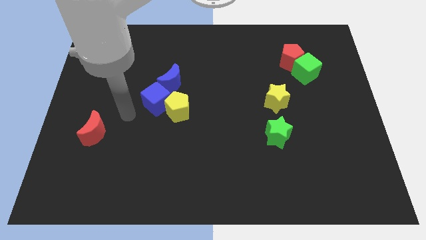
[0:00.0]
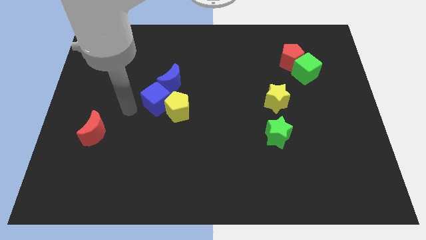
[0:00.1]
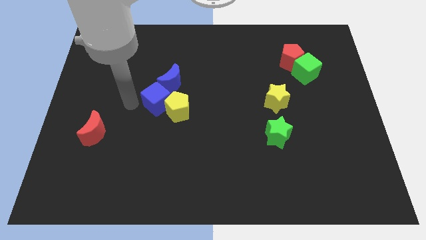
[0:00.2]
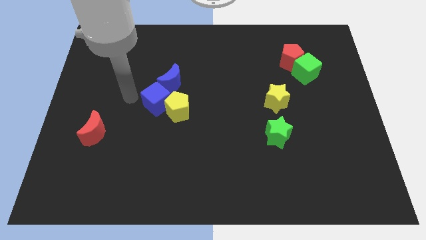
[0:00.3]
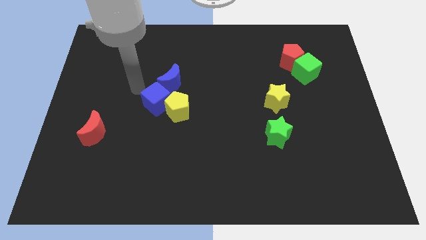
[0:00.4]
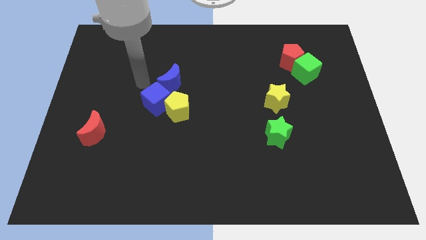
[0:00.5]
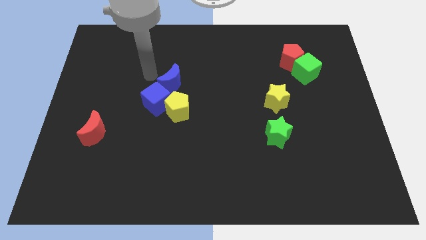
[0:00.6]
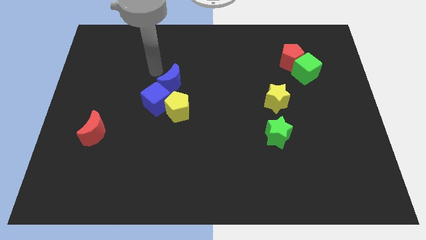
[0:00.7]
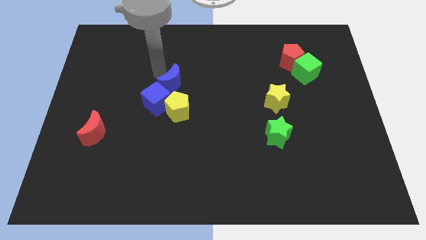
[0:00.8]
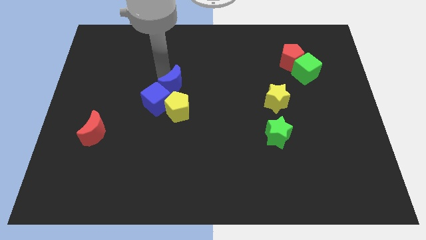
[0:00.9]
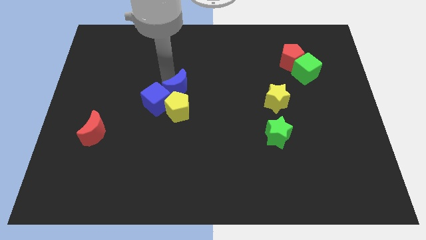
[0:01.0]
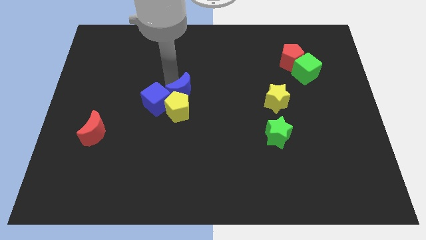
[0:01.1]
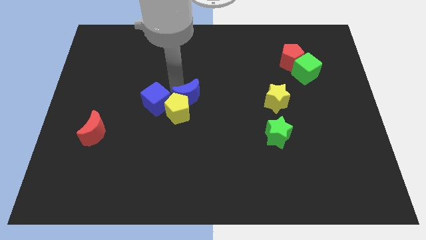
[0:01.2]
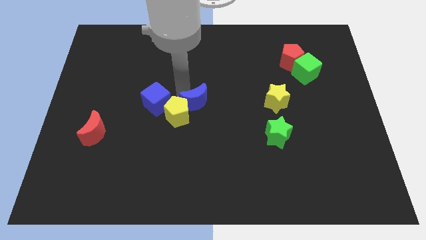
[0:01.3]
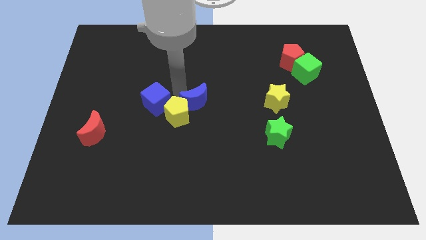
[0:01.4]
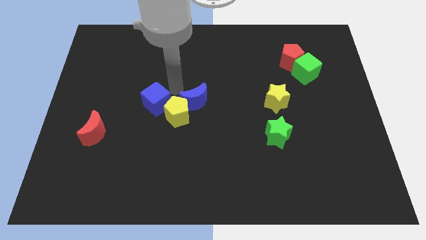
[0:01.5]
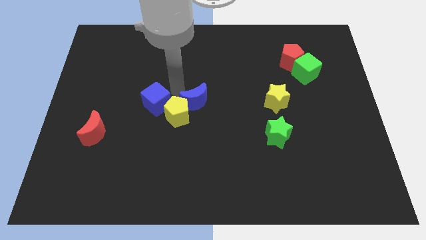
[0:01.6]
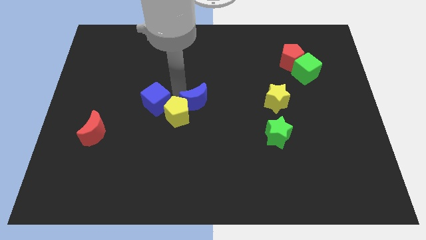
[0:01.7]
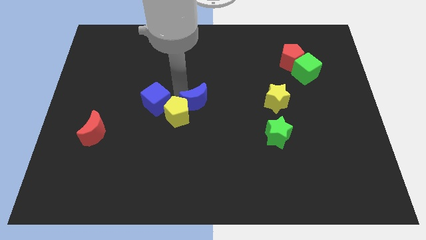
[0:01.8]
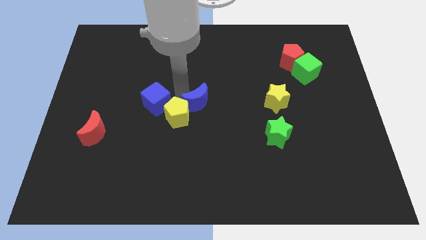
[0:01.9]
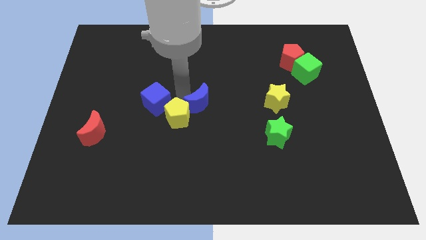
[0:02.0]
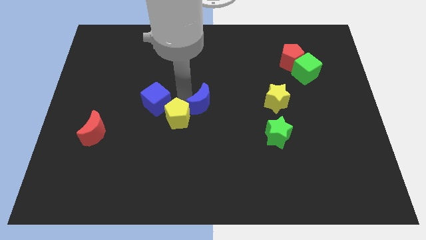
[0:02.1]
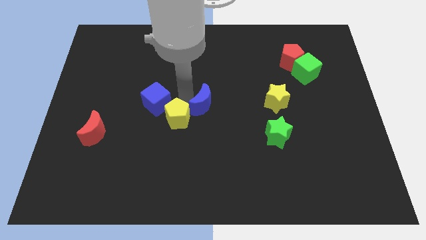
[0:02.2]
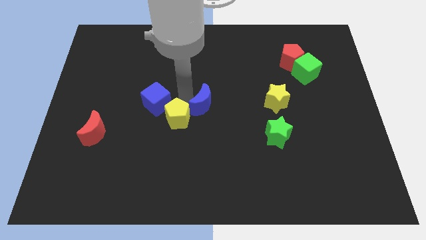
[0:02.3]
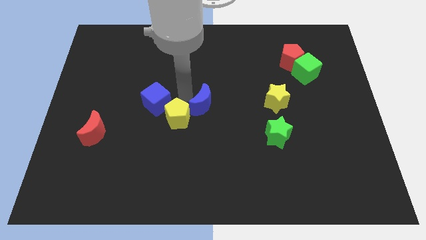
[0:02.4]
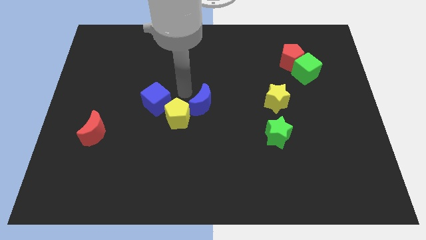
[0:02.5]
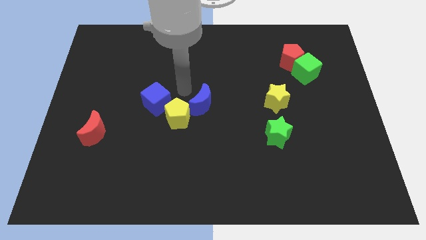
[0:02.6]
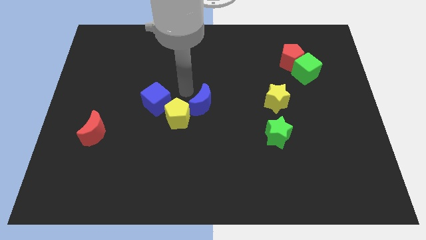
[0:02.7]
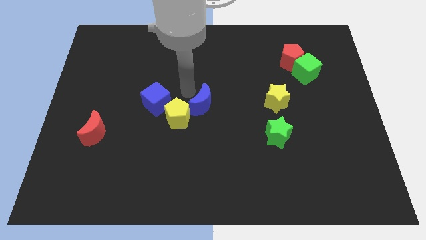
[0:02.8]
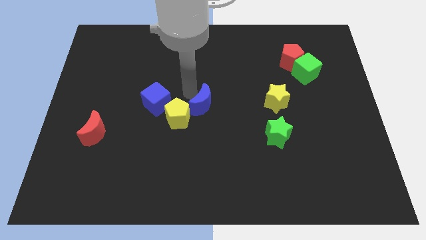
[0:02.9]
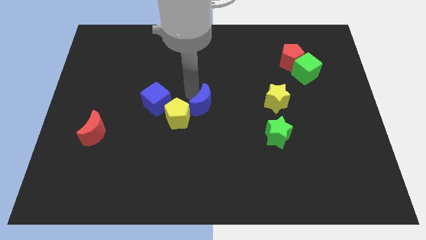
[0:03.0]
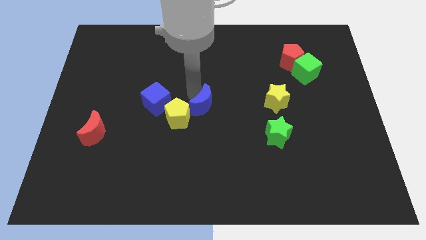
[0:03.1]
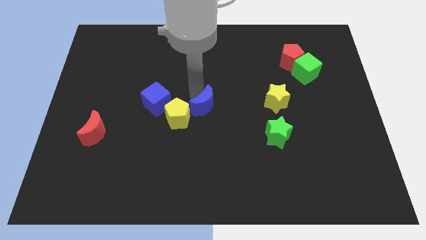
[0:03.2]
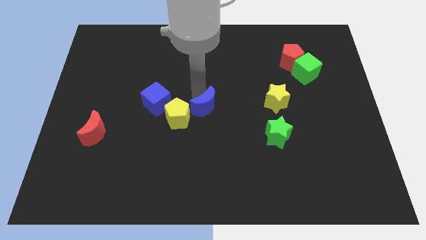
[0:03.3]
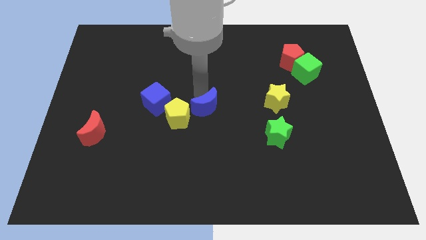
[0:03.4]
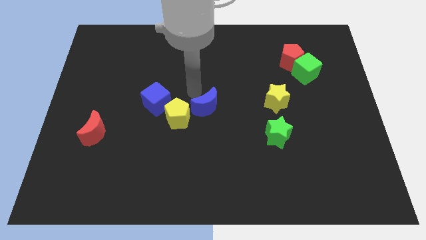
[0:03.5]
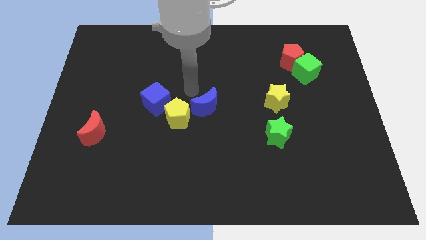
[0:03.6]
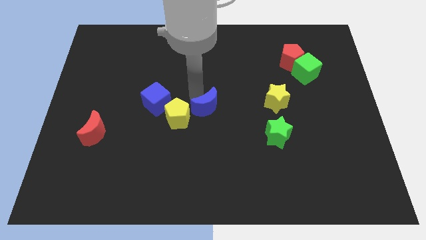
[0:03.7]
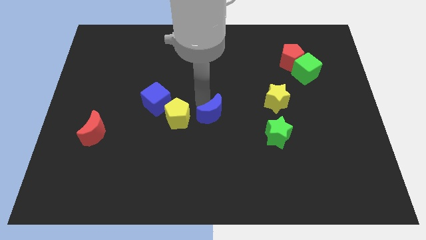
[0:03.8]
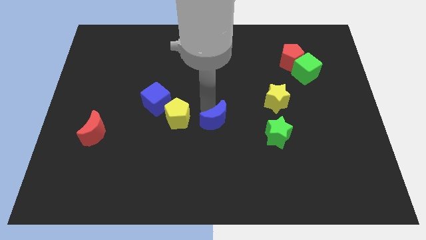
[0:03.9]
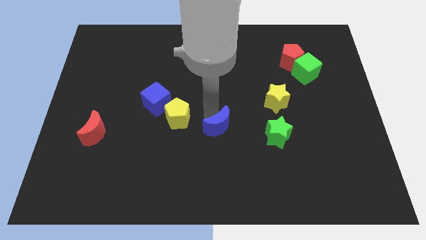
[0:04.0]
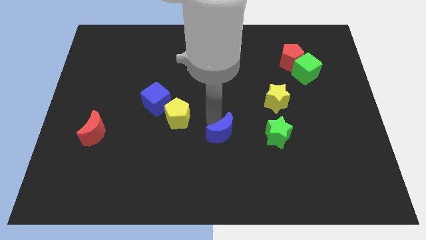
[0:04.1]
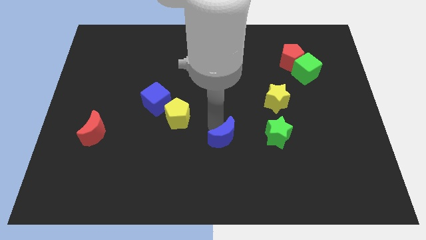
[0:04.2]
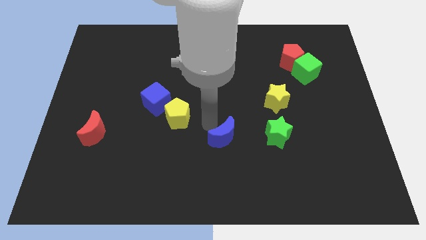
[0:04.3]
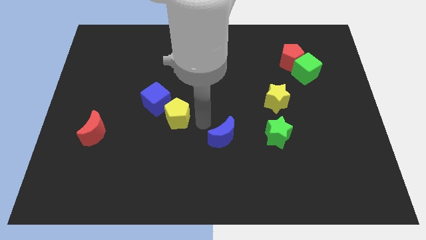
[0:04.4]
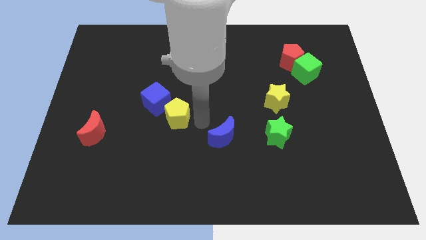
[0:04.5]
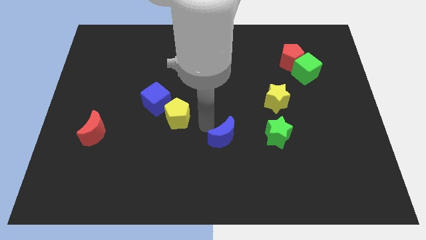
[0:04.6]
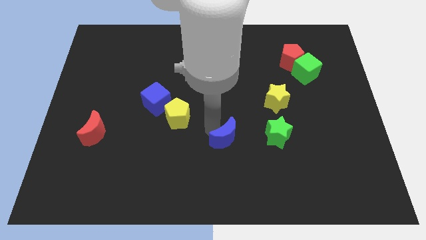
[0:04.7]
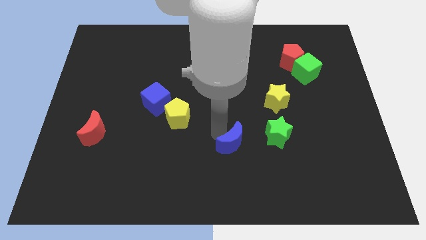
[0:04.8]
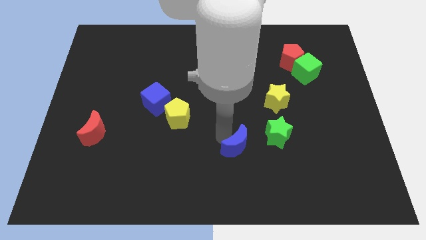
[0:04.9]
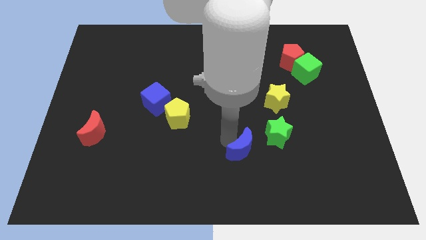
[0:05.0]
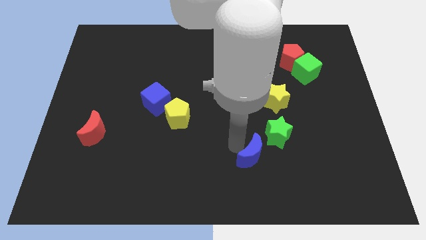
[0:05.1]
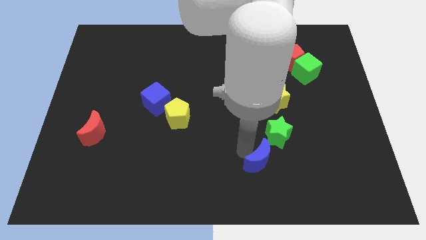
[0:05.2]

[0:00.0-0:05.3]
push the blue moon below the green star

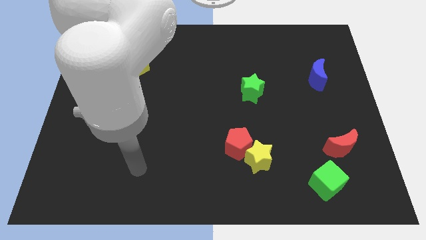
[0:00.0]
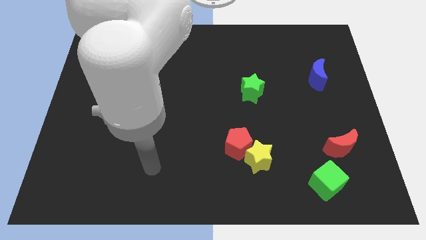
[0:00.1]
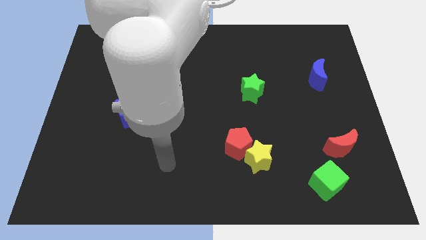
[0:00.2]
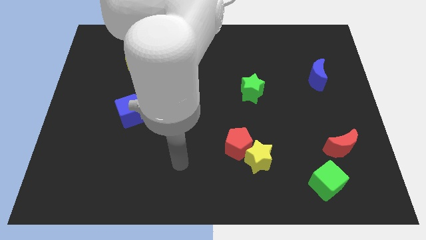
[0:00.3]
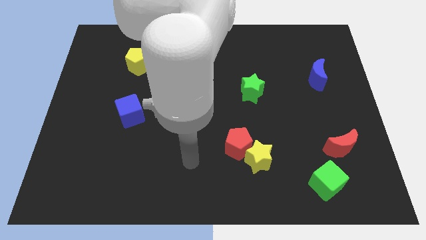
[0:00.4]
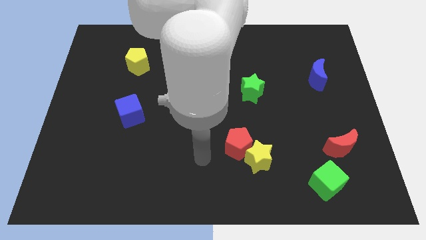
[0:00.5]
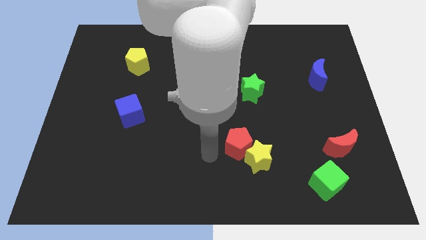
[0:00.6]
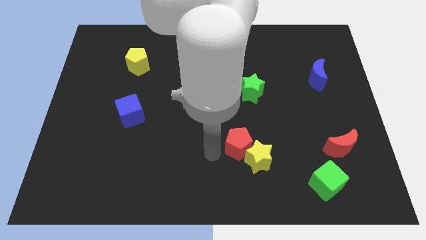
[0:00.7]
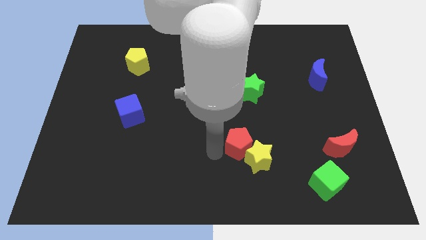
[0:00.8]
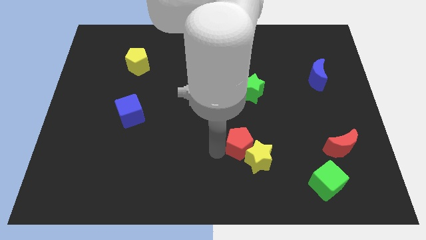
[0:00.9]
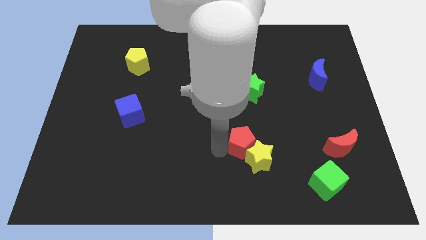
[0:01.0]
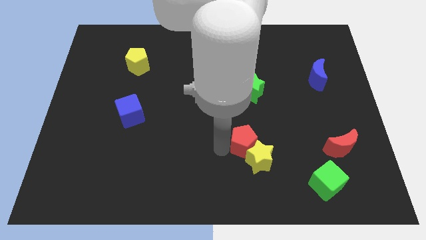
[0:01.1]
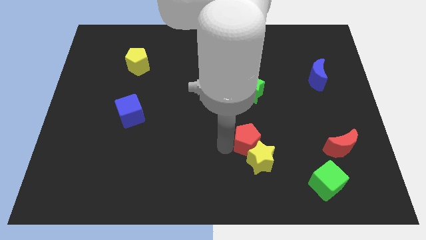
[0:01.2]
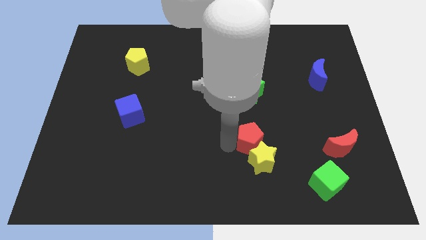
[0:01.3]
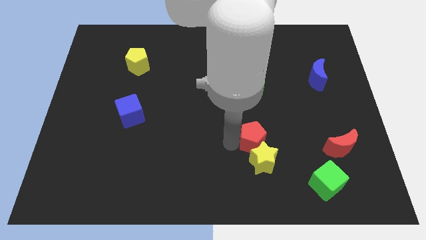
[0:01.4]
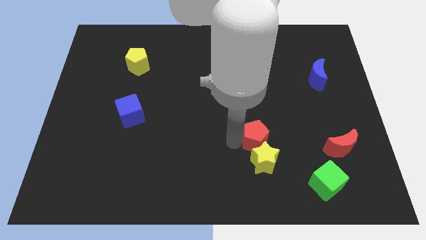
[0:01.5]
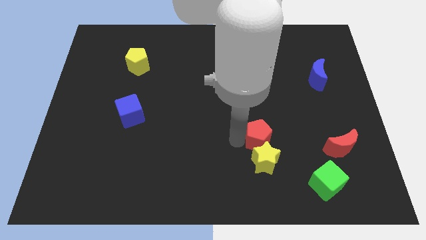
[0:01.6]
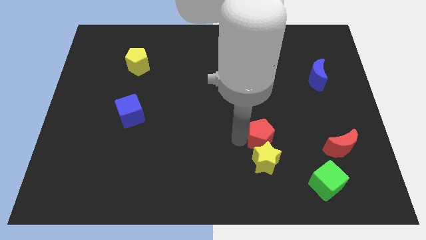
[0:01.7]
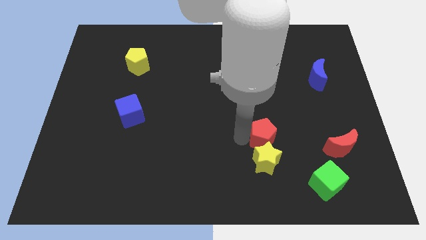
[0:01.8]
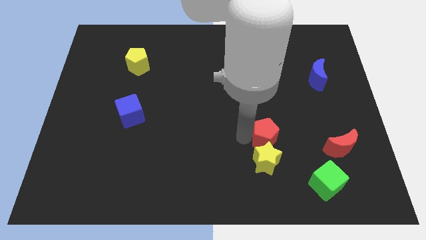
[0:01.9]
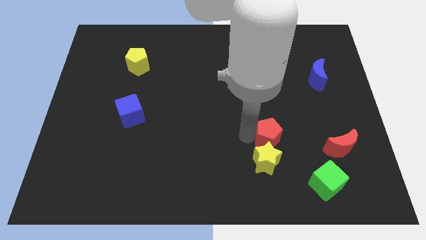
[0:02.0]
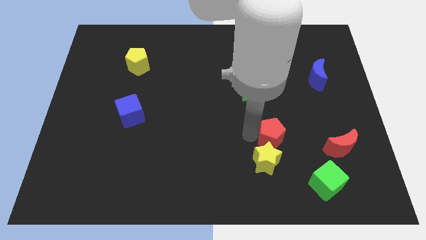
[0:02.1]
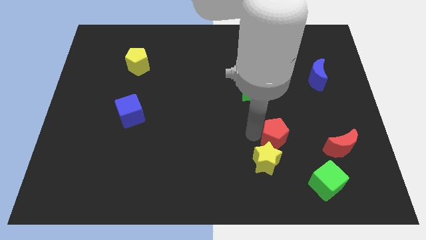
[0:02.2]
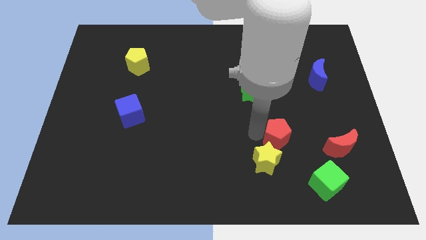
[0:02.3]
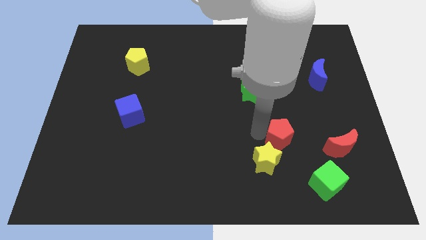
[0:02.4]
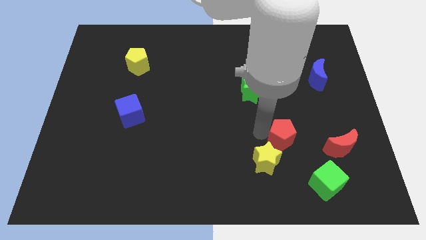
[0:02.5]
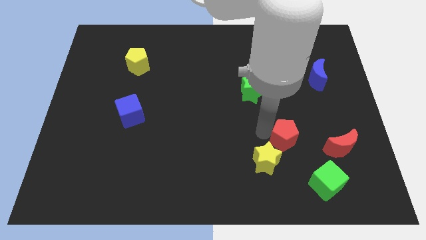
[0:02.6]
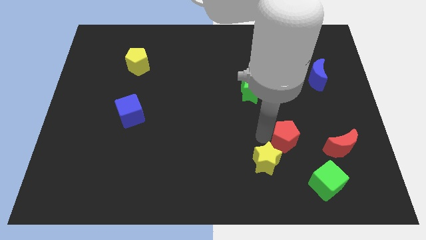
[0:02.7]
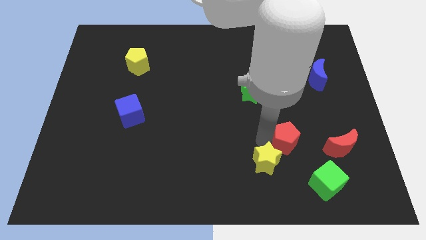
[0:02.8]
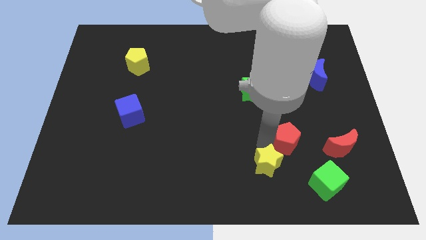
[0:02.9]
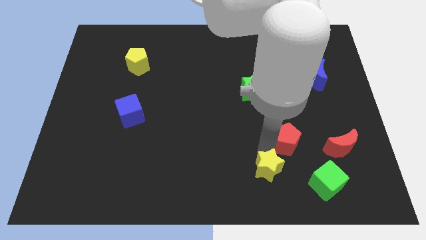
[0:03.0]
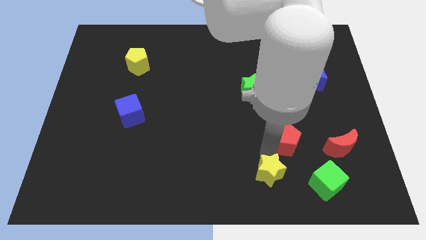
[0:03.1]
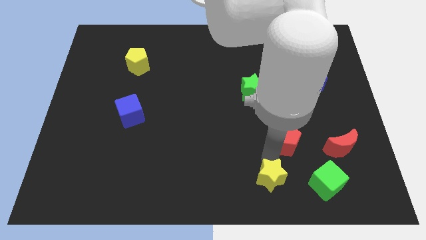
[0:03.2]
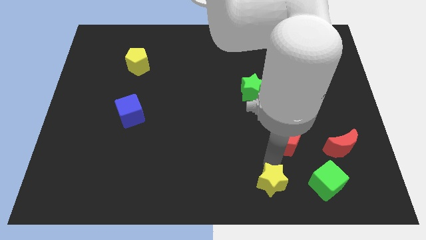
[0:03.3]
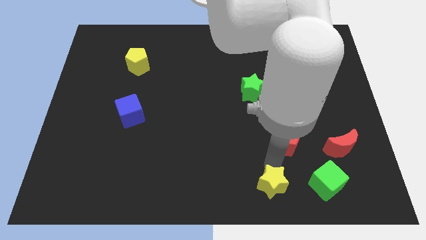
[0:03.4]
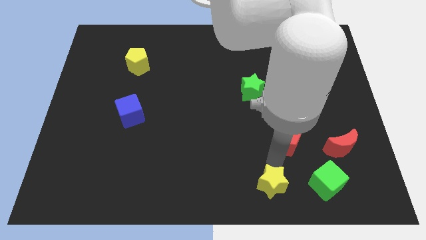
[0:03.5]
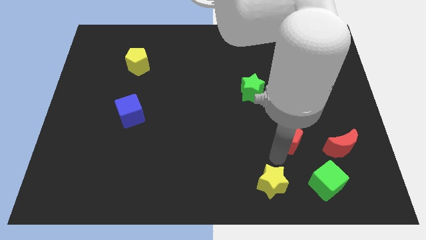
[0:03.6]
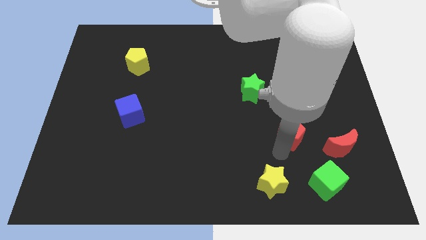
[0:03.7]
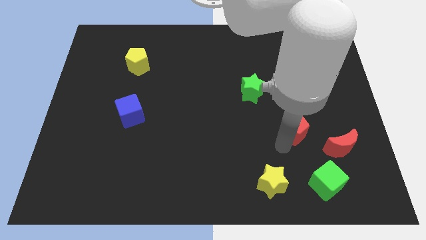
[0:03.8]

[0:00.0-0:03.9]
slide the red pentagon diagonally up and to the left of the red moon
